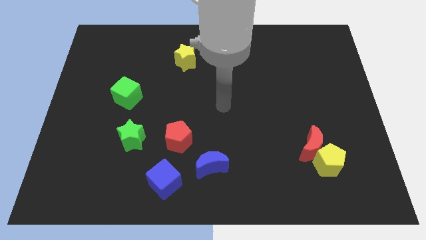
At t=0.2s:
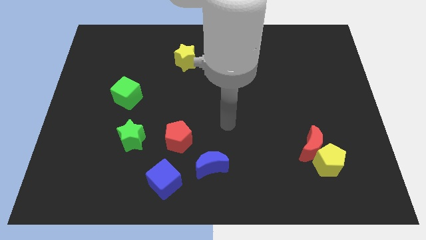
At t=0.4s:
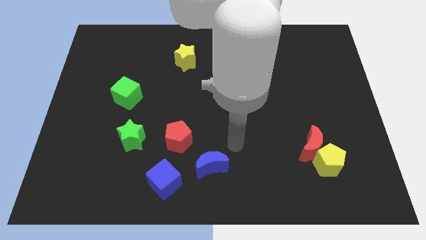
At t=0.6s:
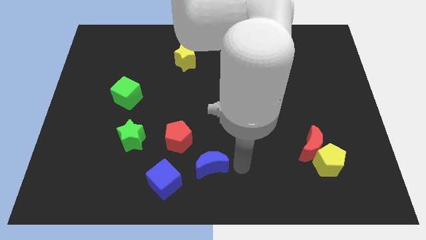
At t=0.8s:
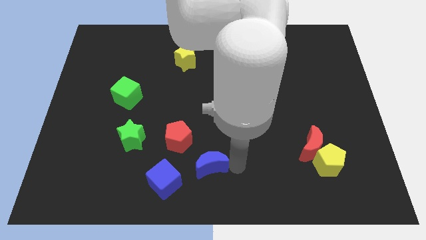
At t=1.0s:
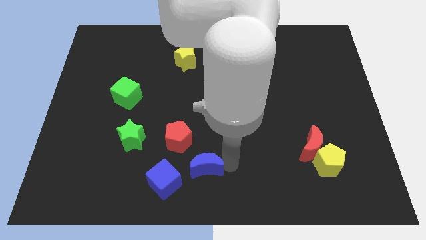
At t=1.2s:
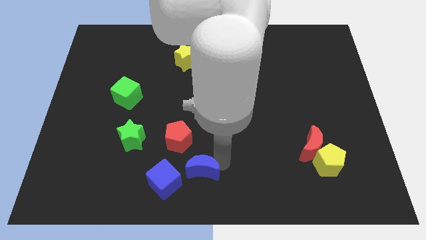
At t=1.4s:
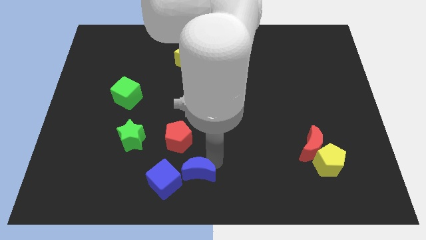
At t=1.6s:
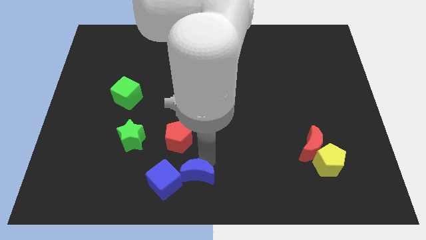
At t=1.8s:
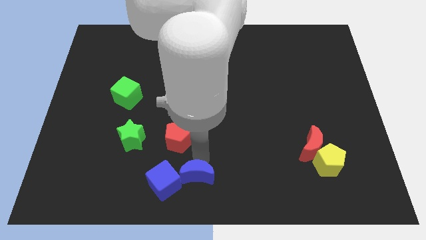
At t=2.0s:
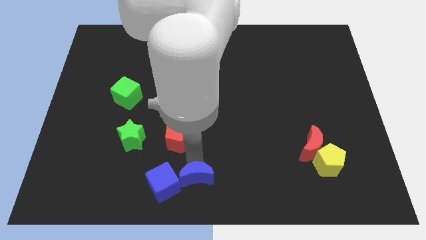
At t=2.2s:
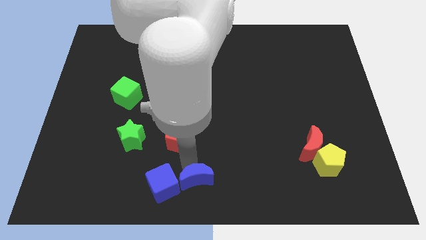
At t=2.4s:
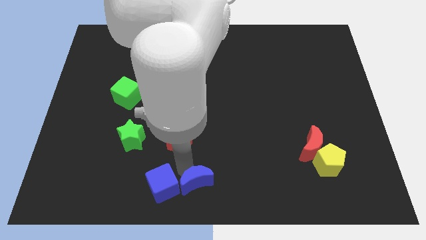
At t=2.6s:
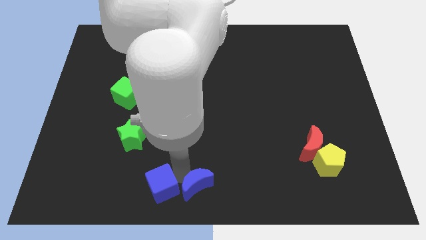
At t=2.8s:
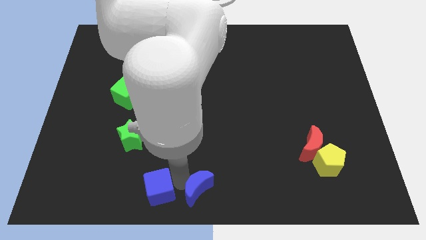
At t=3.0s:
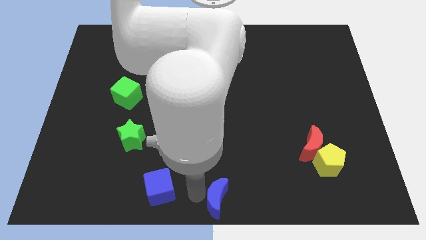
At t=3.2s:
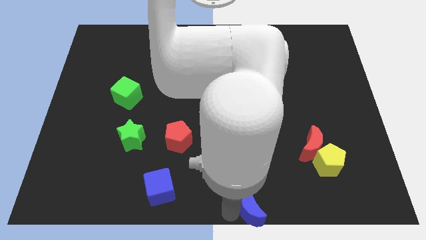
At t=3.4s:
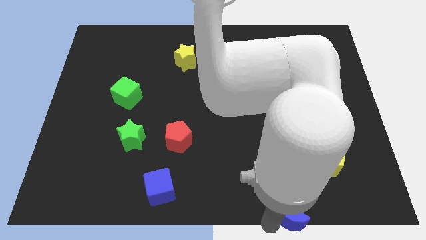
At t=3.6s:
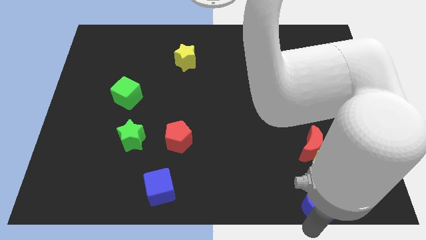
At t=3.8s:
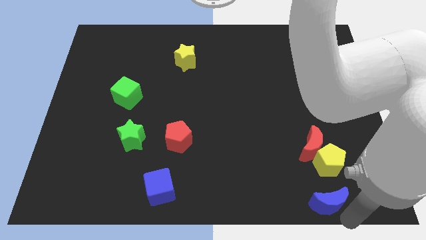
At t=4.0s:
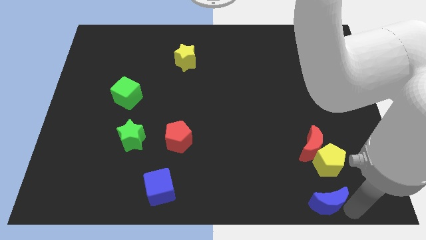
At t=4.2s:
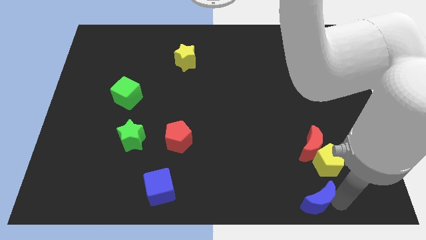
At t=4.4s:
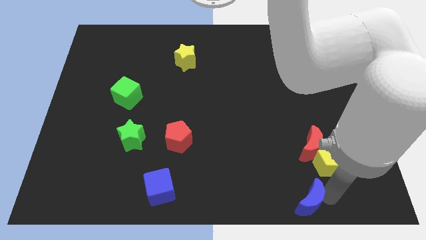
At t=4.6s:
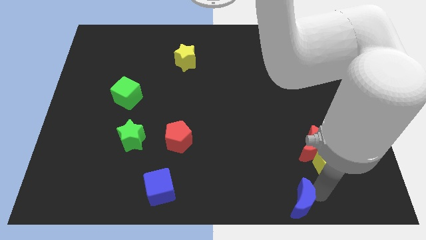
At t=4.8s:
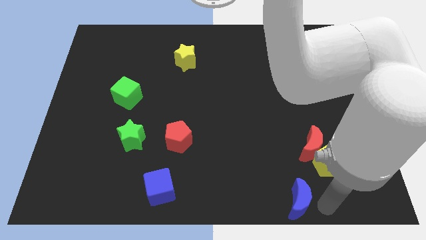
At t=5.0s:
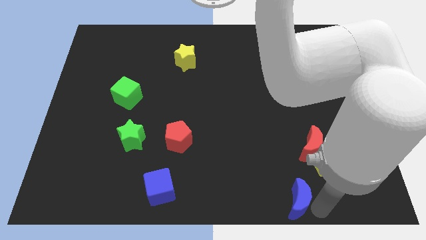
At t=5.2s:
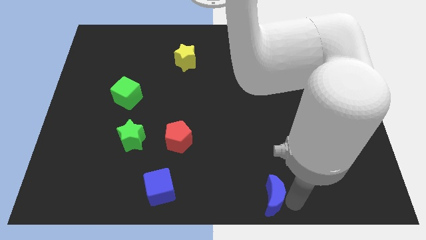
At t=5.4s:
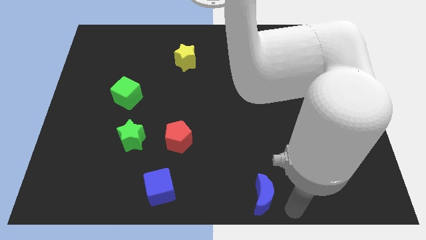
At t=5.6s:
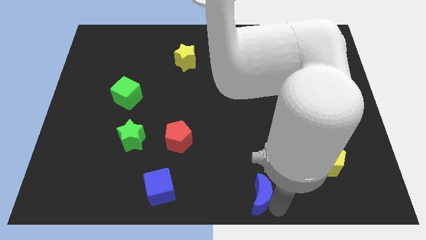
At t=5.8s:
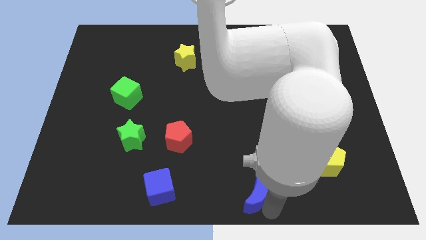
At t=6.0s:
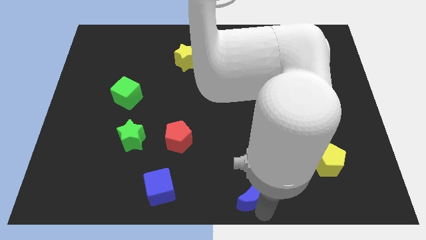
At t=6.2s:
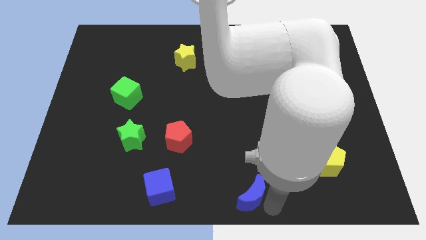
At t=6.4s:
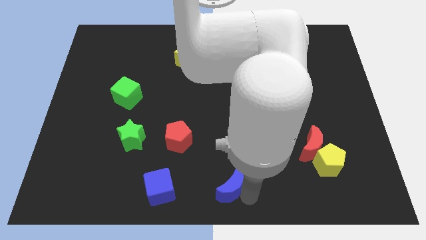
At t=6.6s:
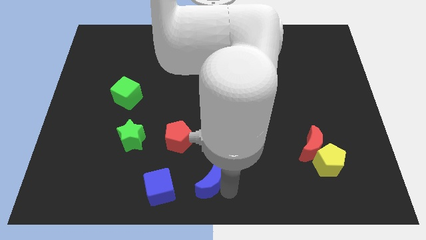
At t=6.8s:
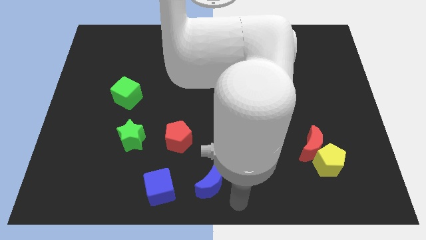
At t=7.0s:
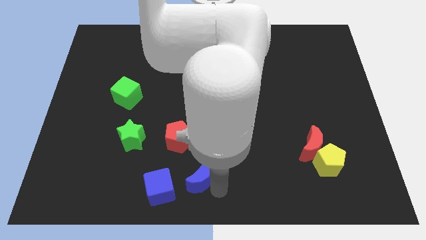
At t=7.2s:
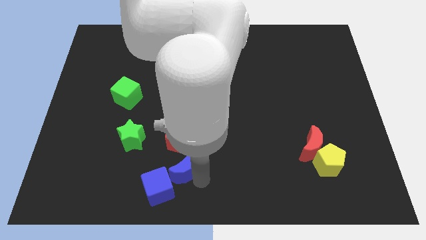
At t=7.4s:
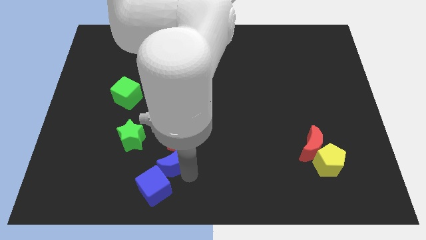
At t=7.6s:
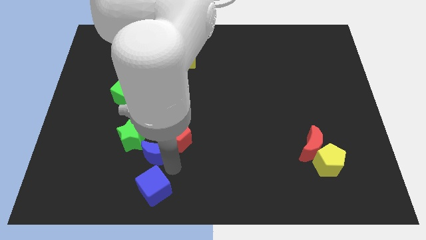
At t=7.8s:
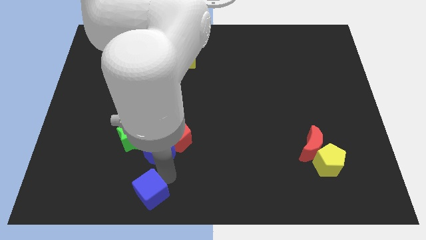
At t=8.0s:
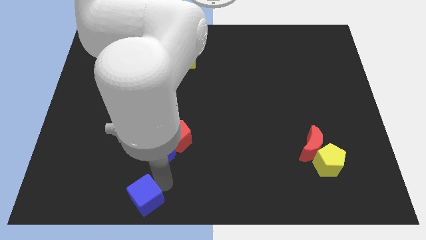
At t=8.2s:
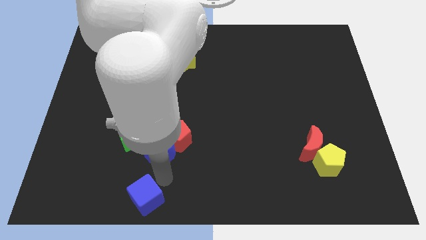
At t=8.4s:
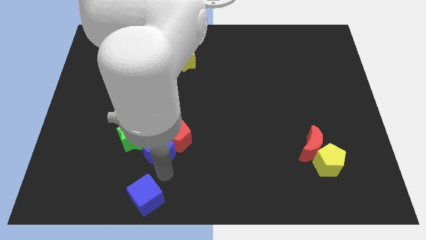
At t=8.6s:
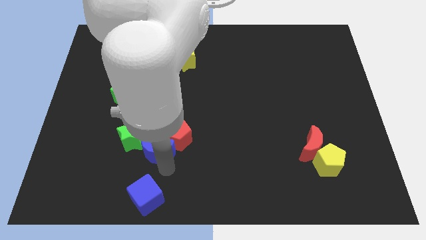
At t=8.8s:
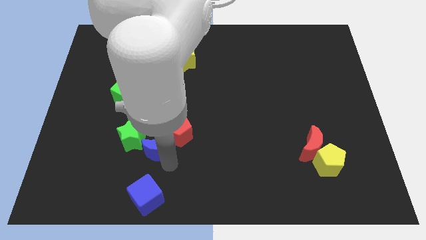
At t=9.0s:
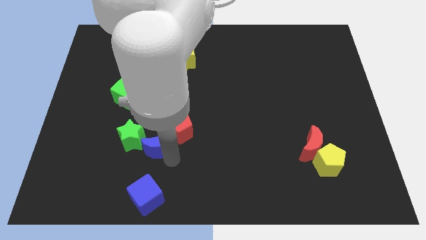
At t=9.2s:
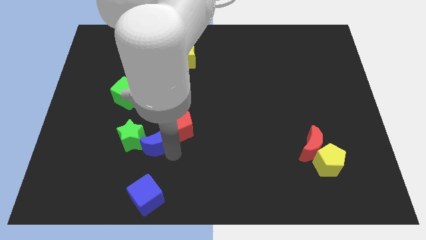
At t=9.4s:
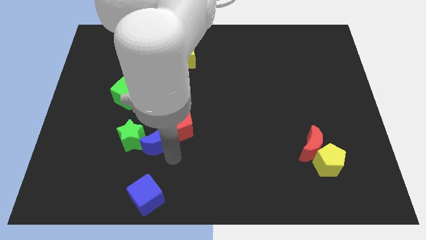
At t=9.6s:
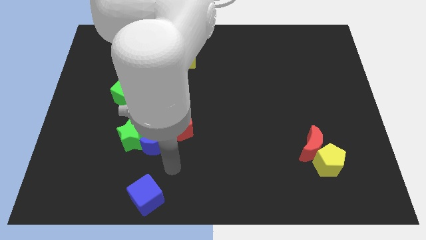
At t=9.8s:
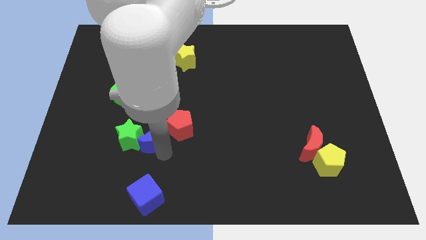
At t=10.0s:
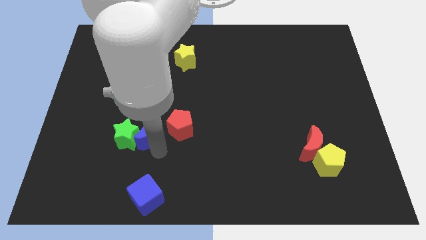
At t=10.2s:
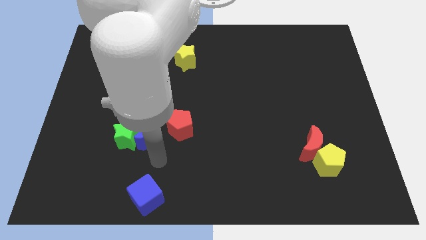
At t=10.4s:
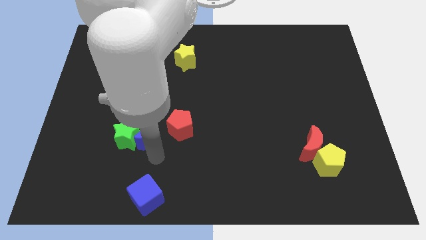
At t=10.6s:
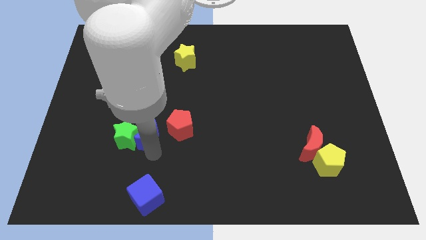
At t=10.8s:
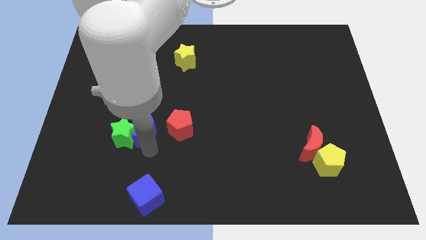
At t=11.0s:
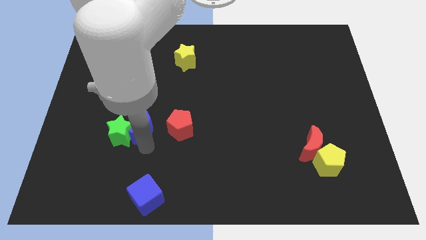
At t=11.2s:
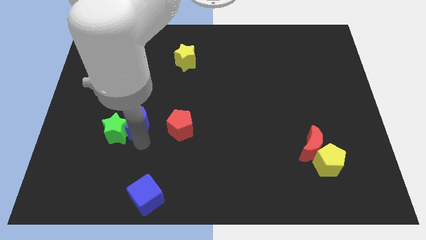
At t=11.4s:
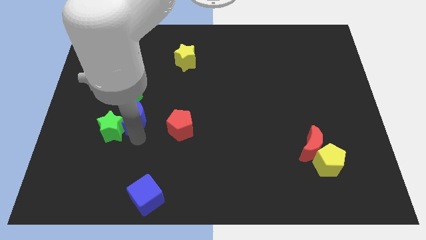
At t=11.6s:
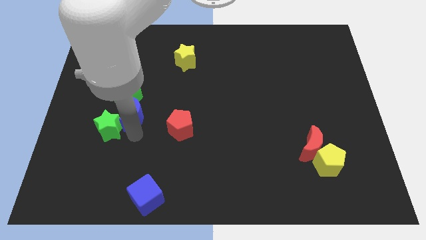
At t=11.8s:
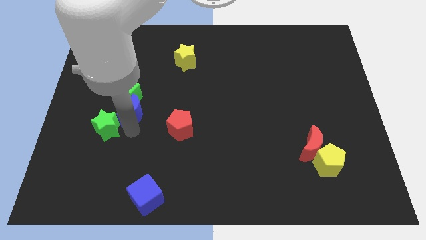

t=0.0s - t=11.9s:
move the blue moon close to the green cube

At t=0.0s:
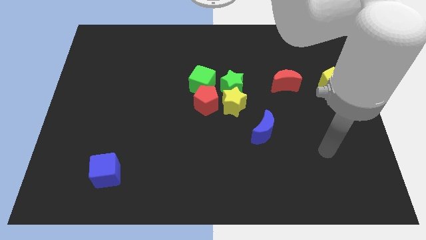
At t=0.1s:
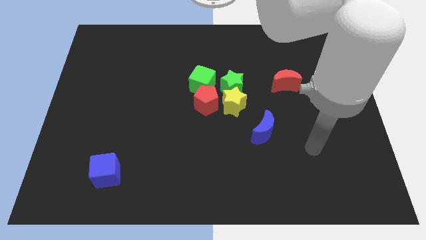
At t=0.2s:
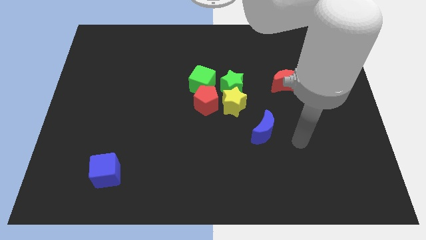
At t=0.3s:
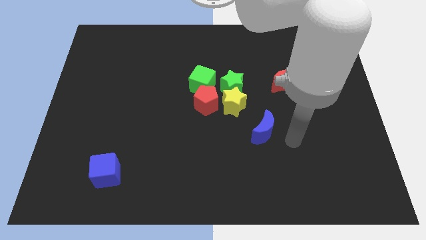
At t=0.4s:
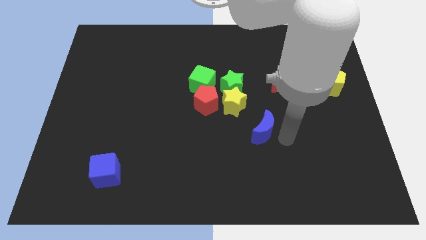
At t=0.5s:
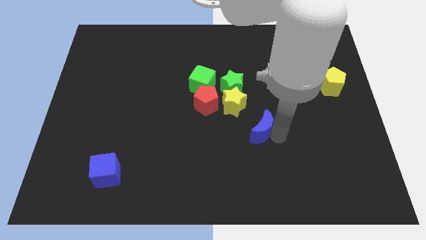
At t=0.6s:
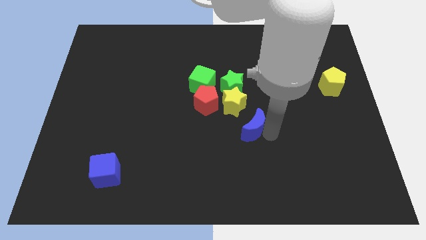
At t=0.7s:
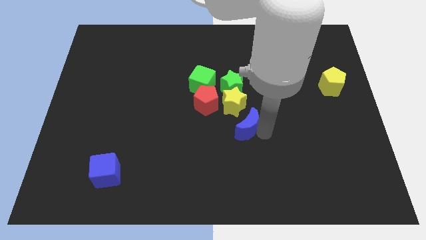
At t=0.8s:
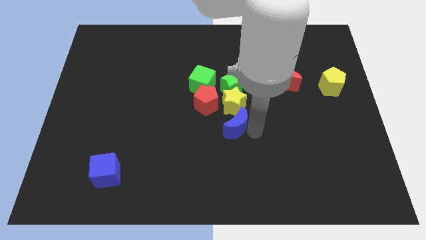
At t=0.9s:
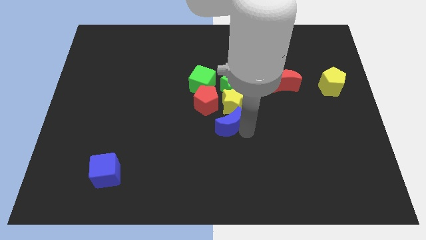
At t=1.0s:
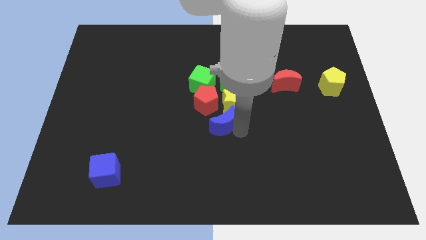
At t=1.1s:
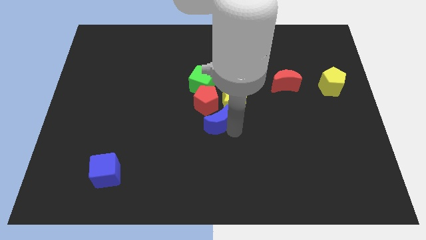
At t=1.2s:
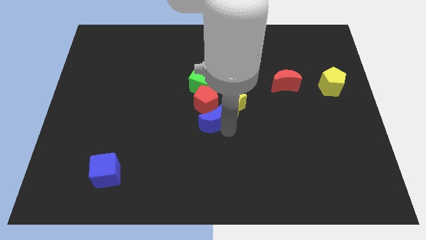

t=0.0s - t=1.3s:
move the blue moon towards the red pentagon
